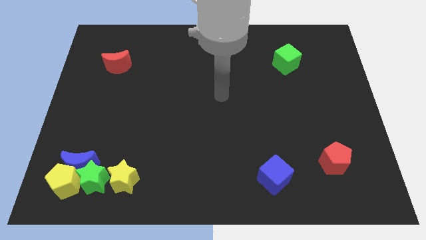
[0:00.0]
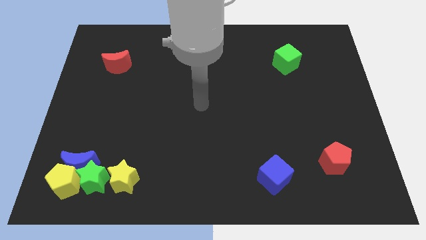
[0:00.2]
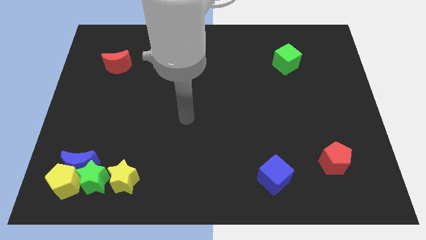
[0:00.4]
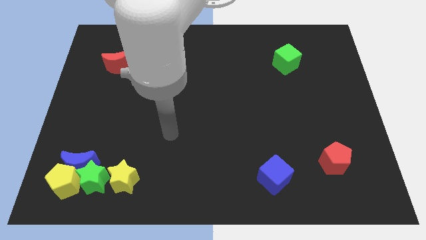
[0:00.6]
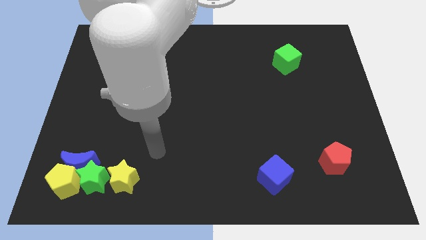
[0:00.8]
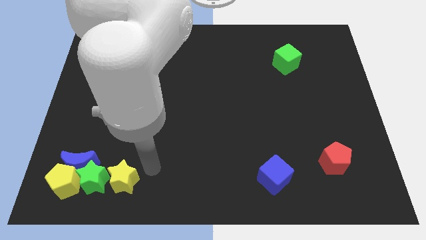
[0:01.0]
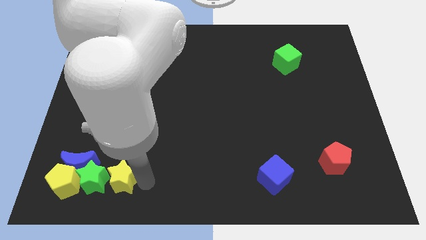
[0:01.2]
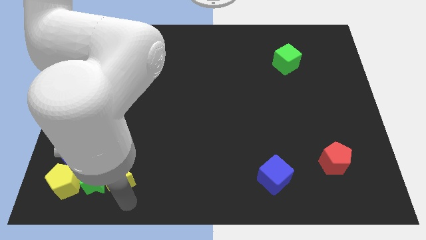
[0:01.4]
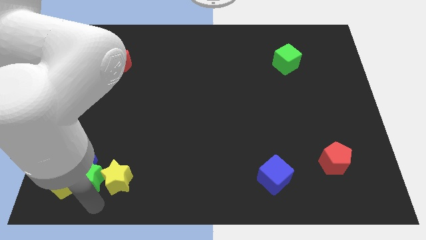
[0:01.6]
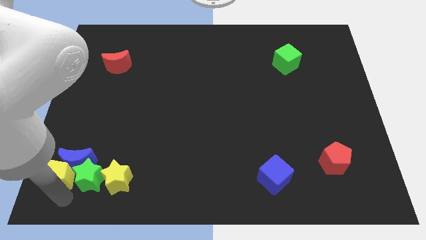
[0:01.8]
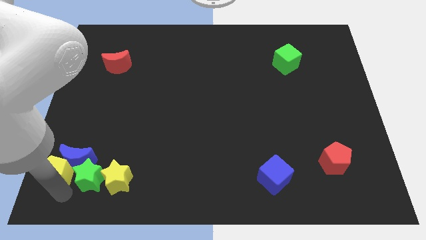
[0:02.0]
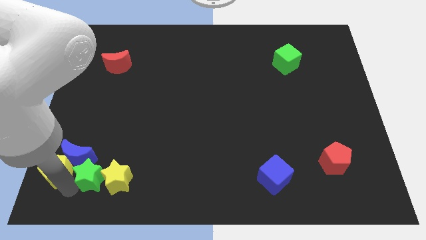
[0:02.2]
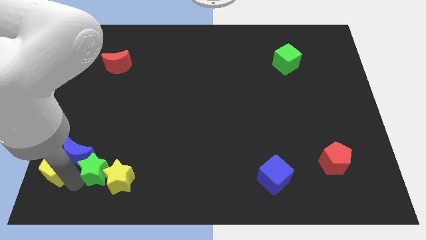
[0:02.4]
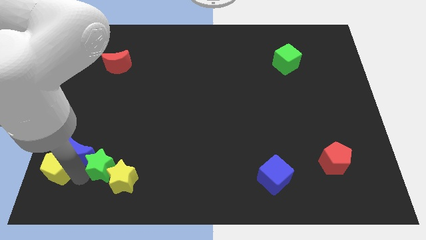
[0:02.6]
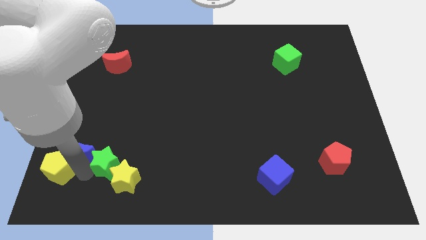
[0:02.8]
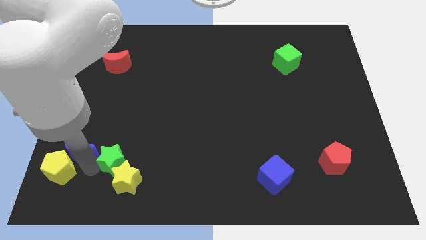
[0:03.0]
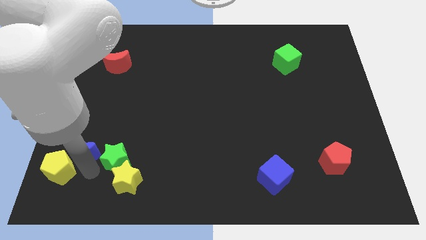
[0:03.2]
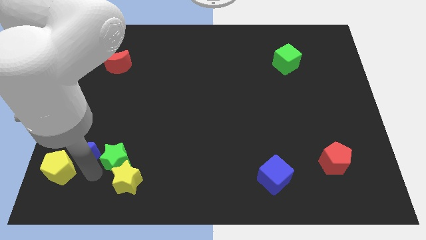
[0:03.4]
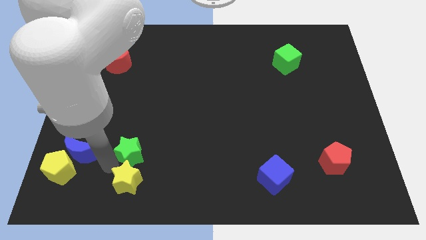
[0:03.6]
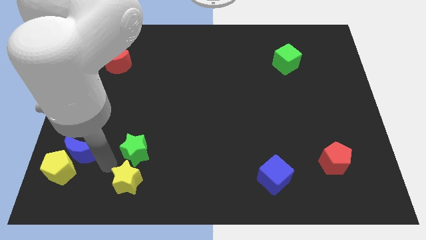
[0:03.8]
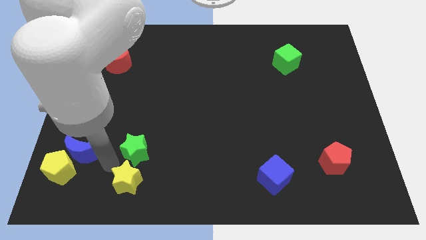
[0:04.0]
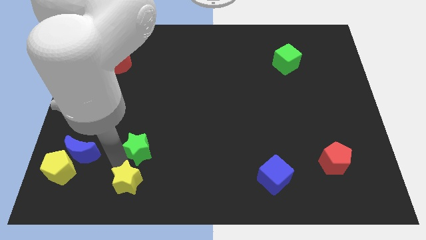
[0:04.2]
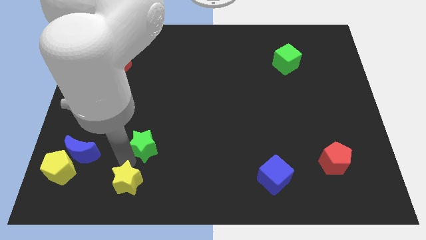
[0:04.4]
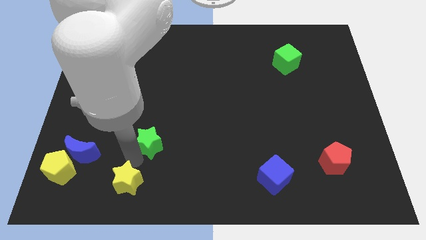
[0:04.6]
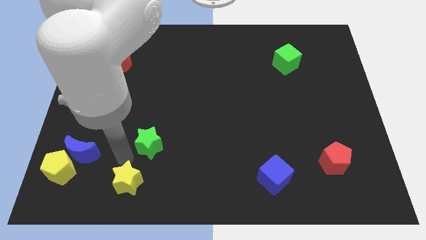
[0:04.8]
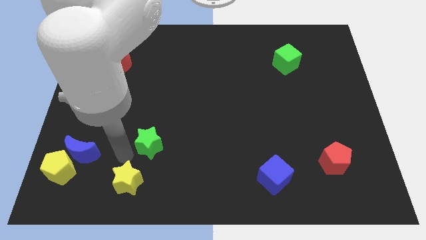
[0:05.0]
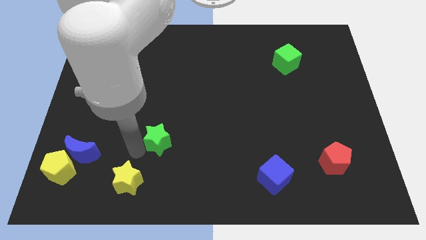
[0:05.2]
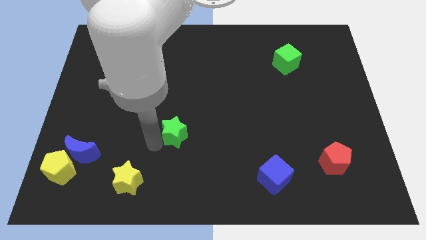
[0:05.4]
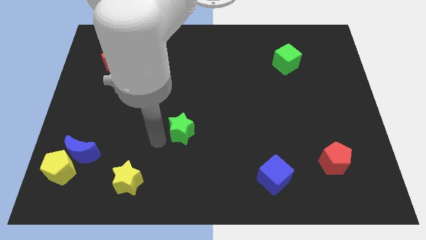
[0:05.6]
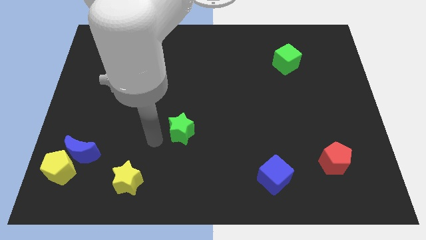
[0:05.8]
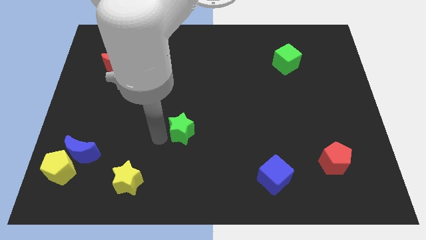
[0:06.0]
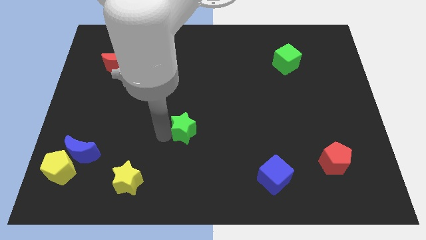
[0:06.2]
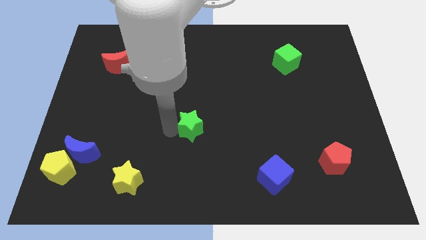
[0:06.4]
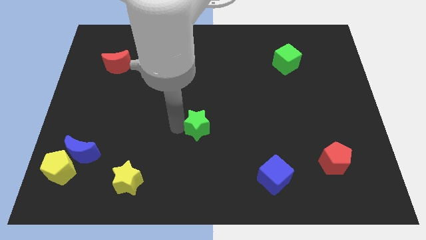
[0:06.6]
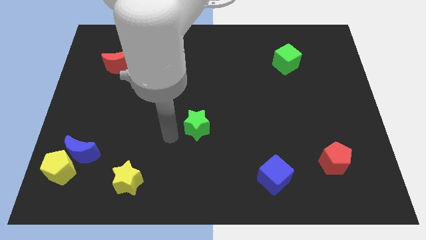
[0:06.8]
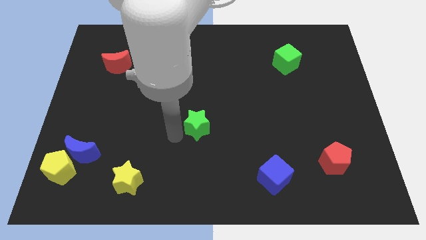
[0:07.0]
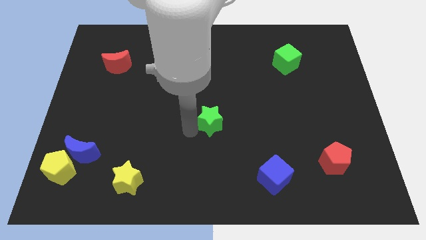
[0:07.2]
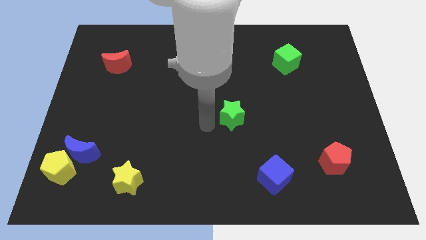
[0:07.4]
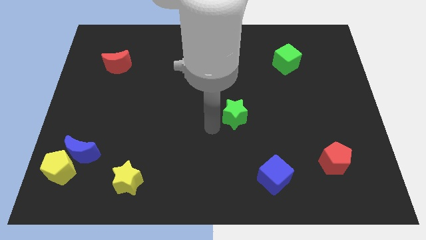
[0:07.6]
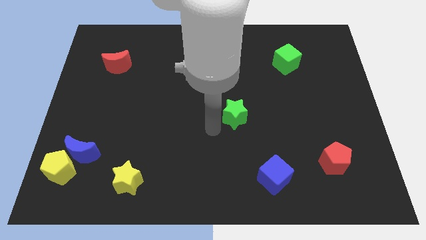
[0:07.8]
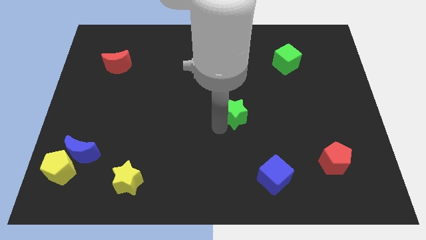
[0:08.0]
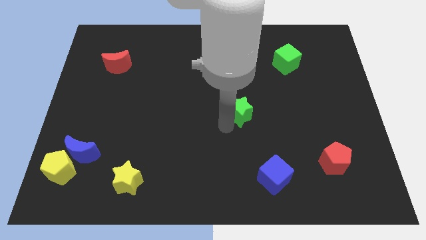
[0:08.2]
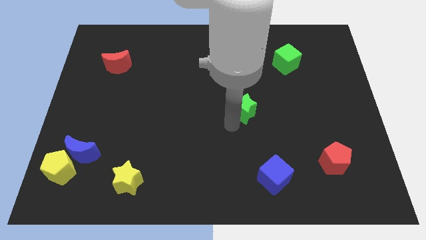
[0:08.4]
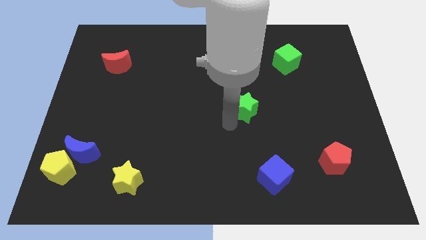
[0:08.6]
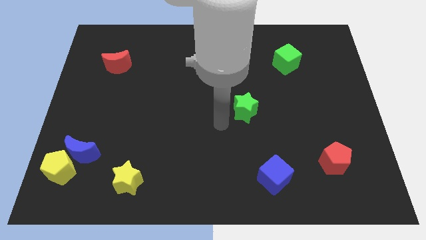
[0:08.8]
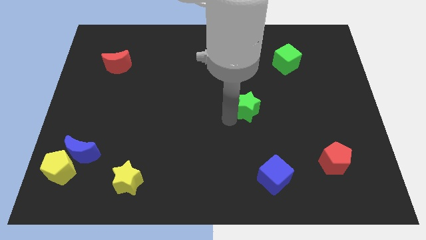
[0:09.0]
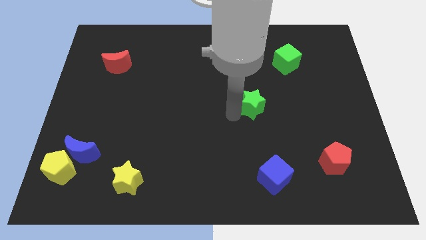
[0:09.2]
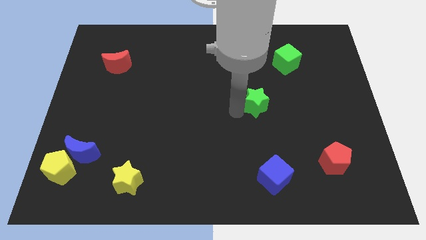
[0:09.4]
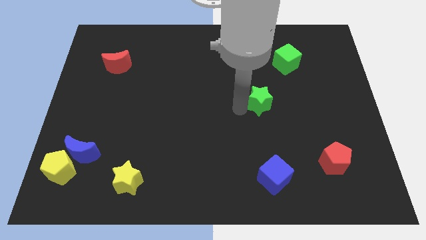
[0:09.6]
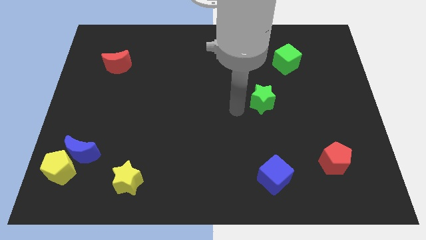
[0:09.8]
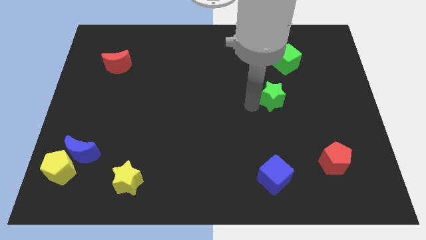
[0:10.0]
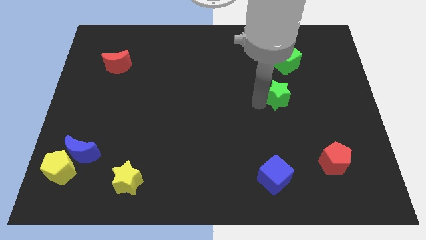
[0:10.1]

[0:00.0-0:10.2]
push the green star below the green cube

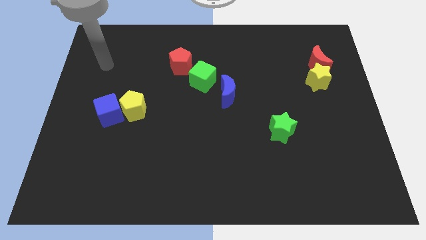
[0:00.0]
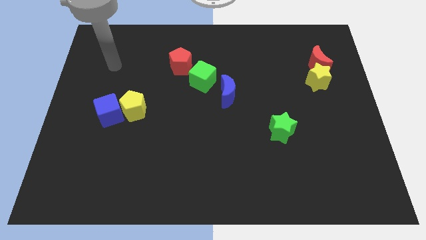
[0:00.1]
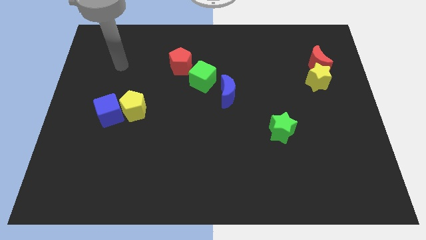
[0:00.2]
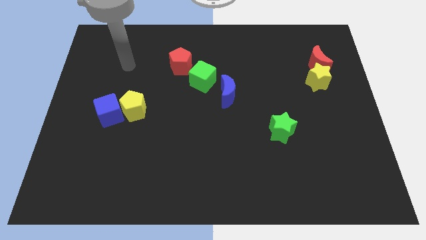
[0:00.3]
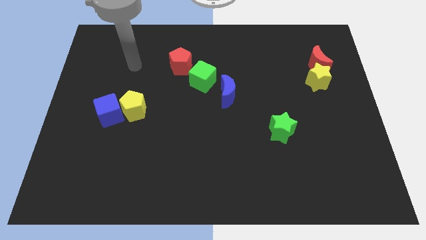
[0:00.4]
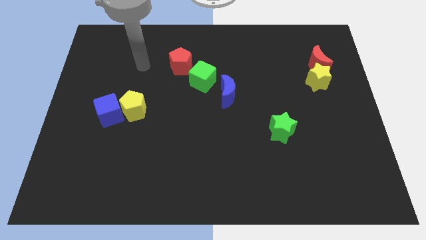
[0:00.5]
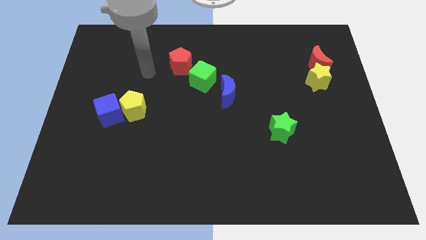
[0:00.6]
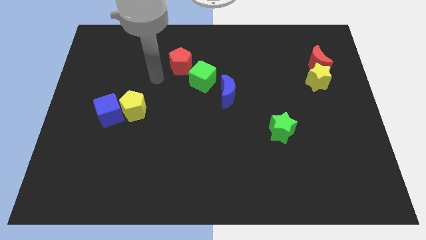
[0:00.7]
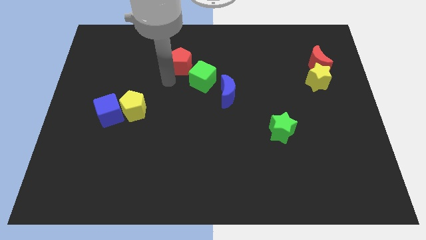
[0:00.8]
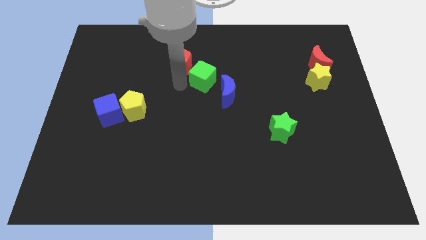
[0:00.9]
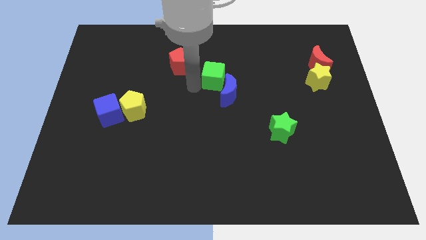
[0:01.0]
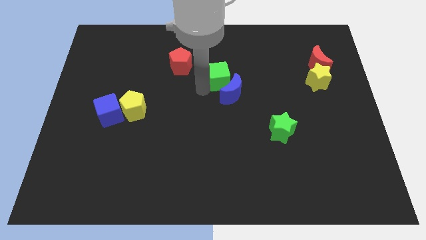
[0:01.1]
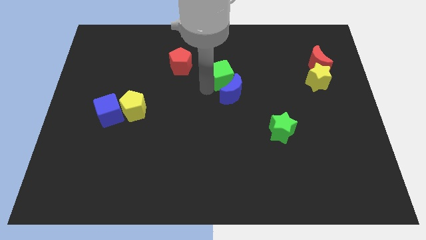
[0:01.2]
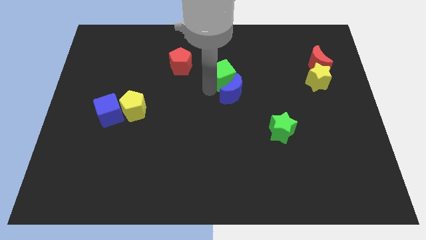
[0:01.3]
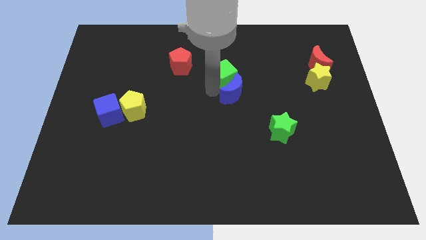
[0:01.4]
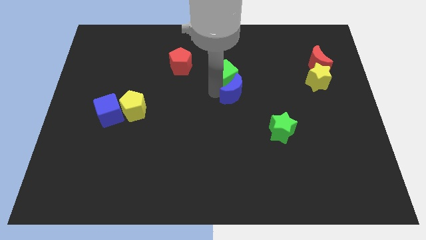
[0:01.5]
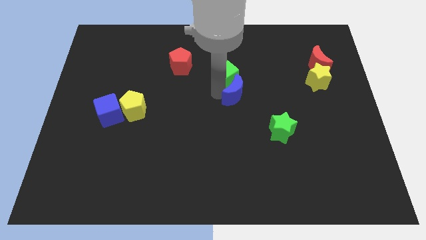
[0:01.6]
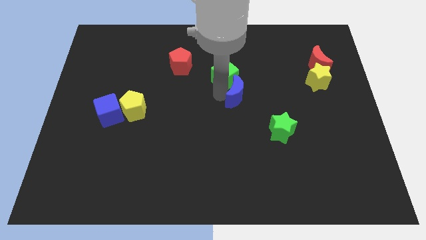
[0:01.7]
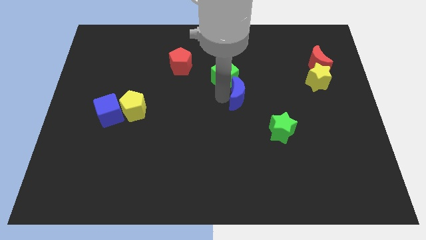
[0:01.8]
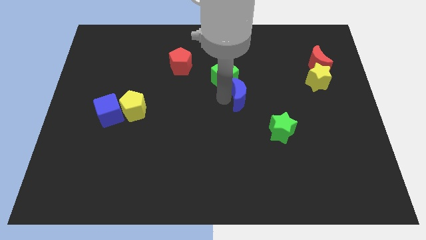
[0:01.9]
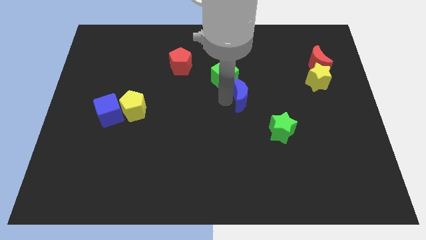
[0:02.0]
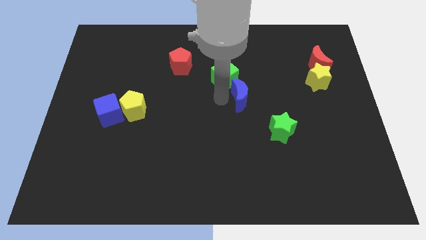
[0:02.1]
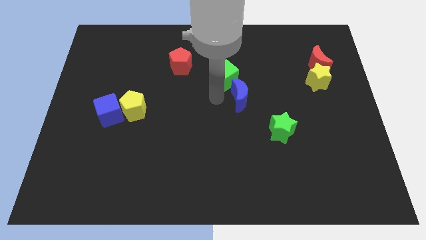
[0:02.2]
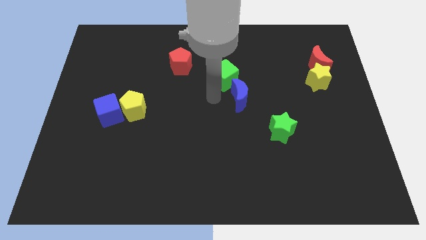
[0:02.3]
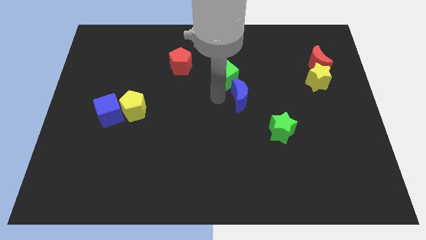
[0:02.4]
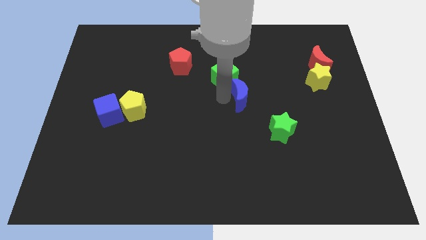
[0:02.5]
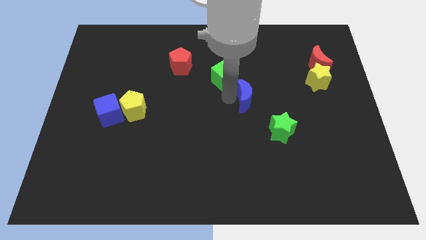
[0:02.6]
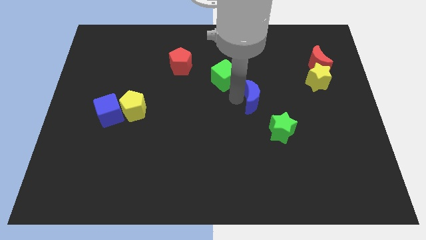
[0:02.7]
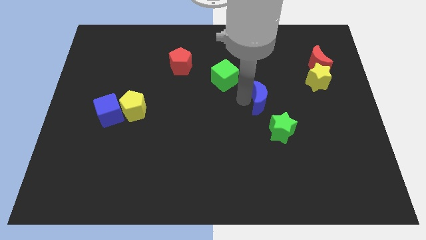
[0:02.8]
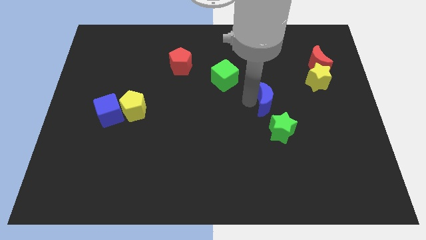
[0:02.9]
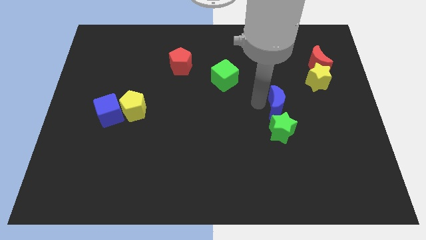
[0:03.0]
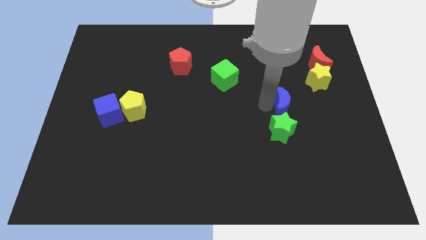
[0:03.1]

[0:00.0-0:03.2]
move the blue moon to the bottom left of the yellow star
